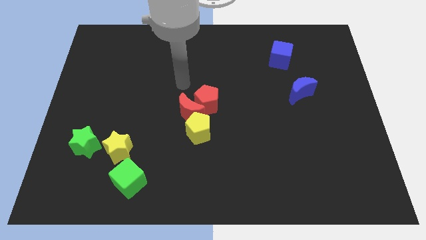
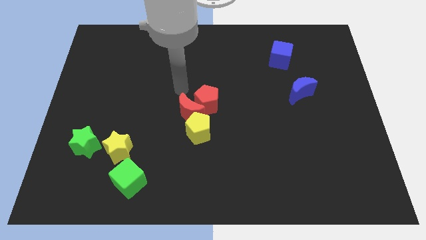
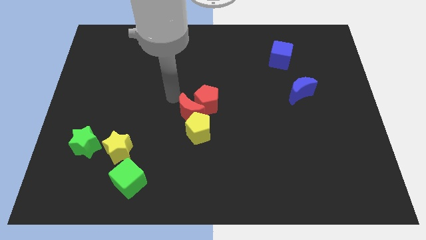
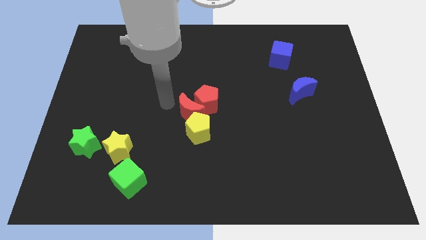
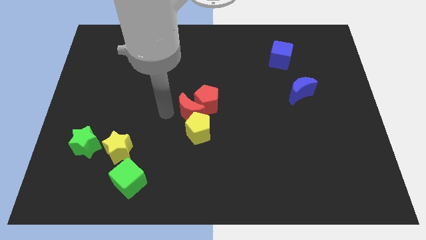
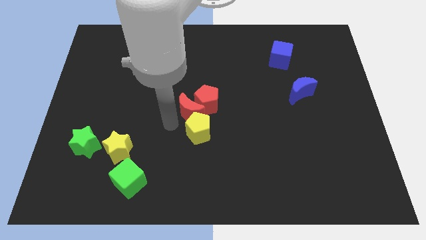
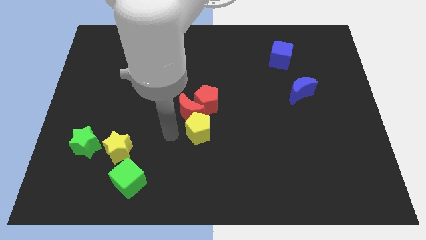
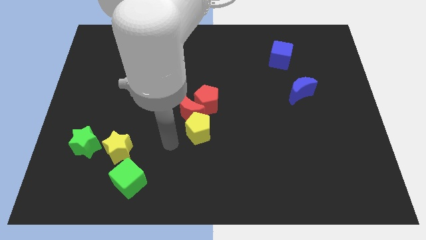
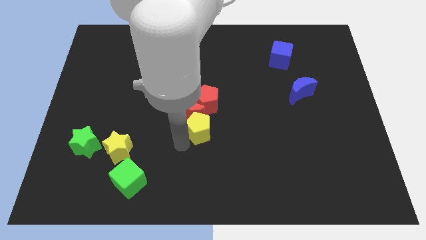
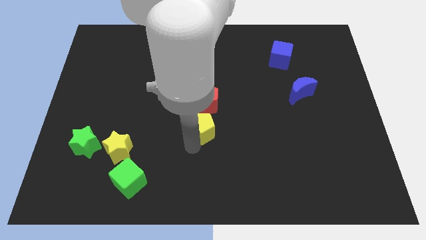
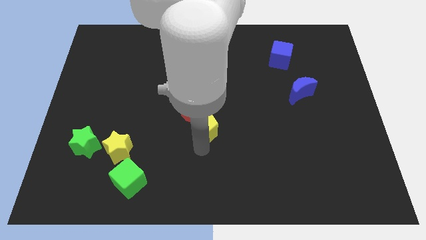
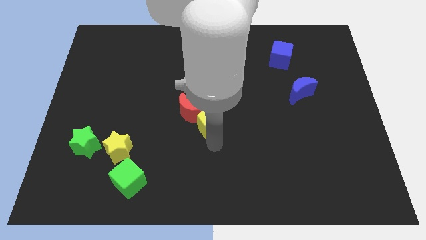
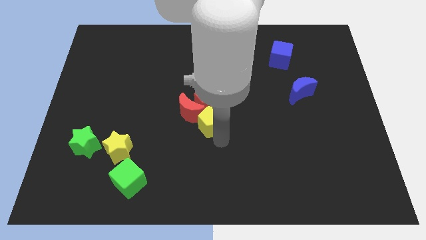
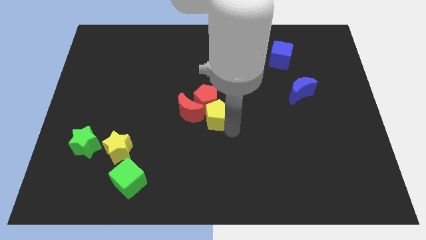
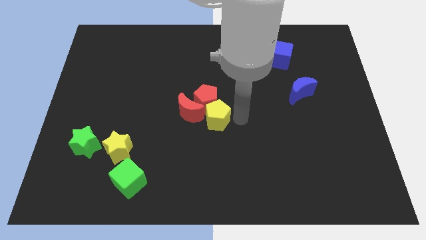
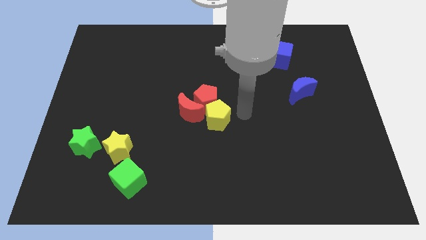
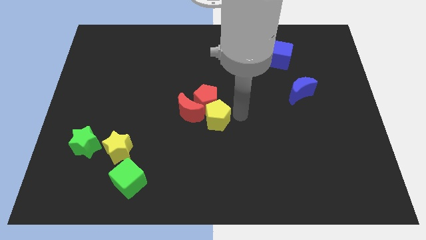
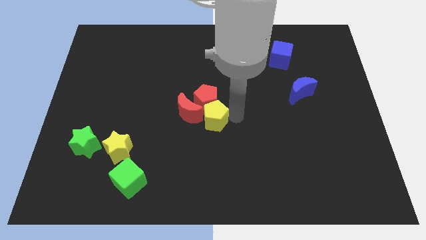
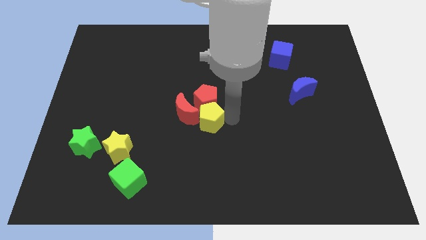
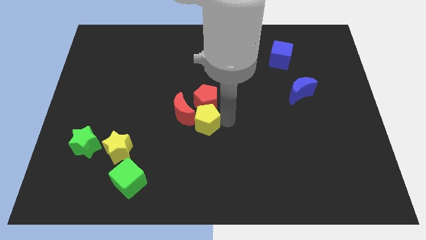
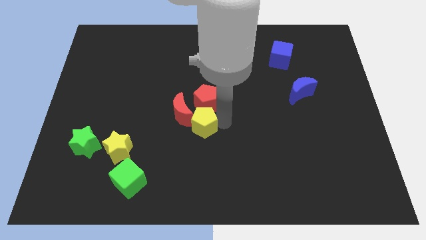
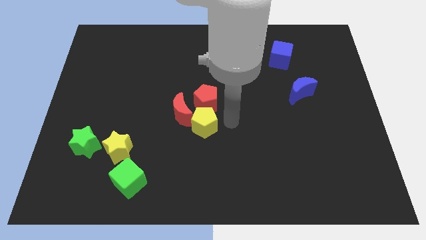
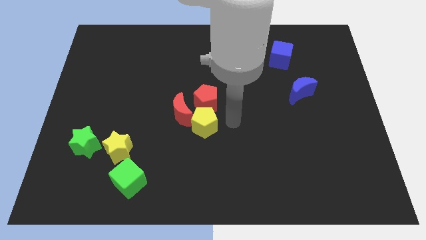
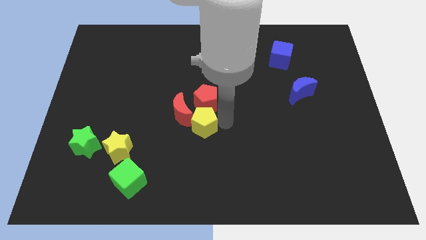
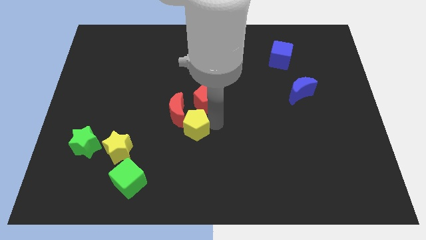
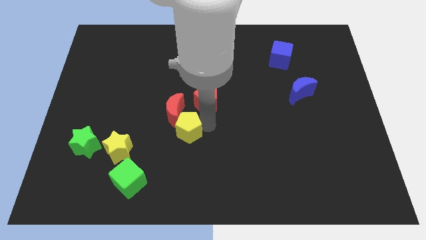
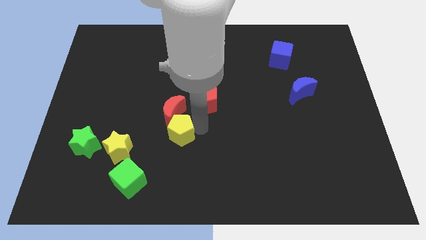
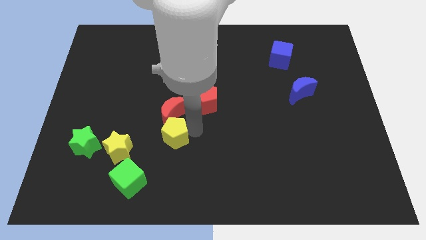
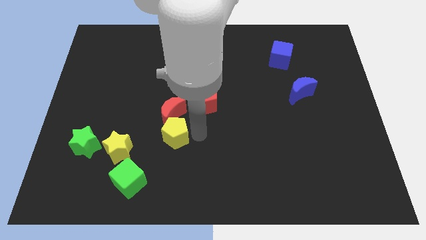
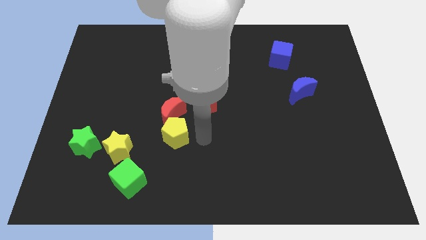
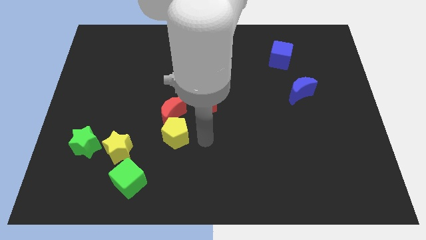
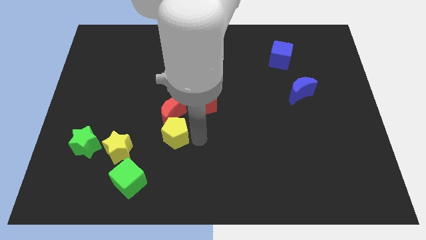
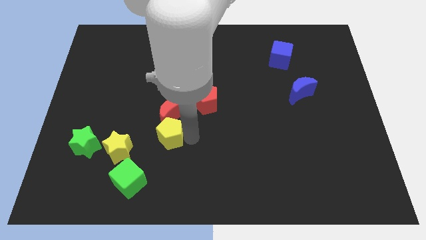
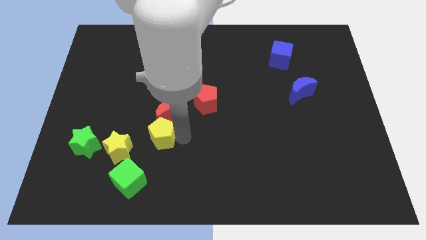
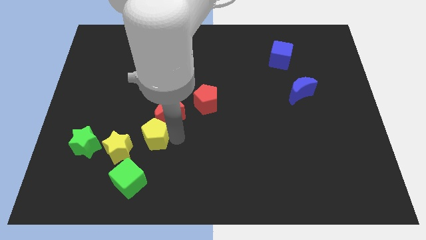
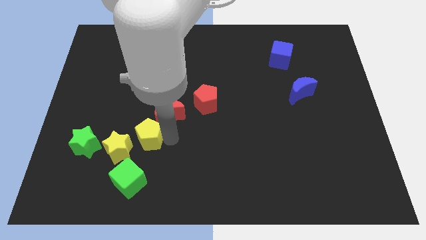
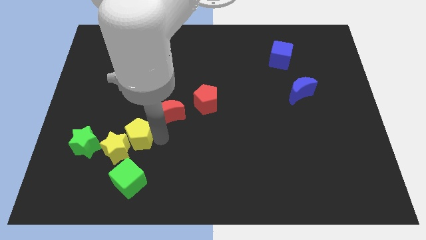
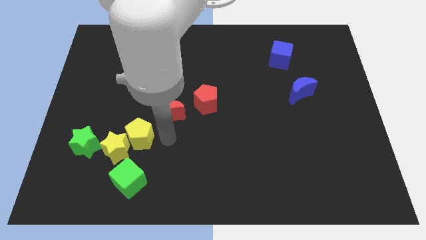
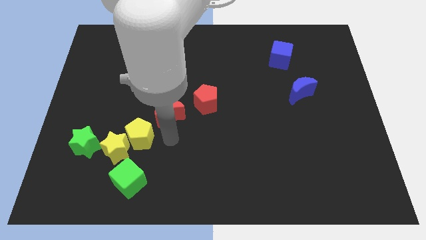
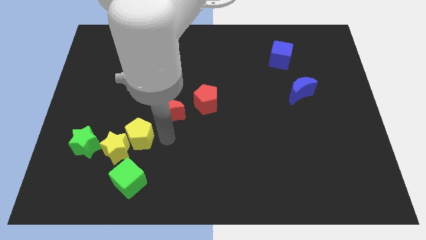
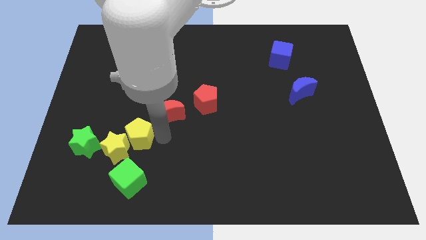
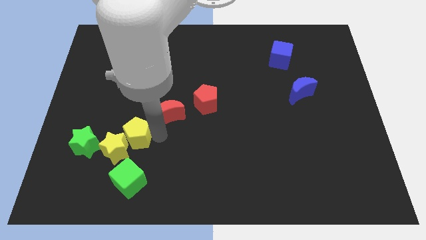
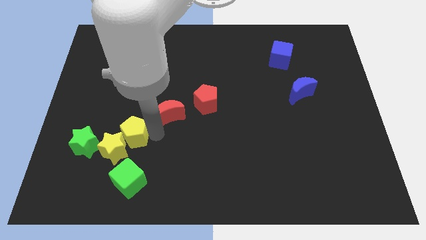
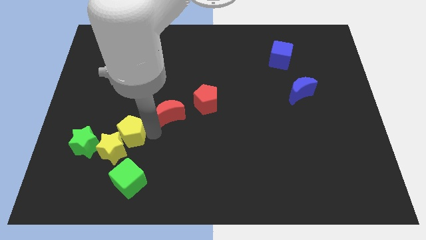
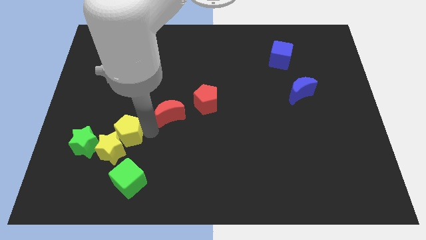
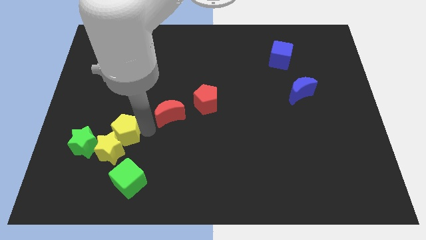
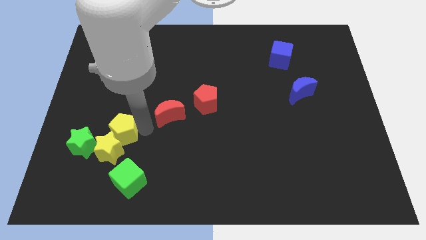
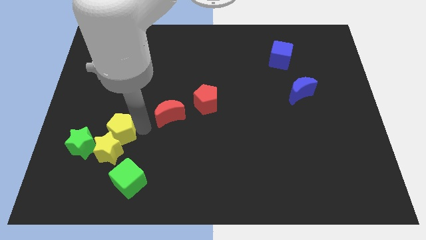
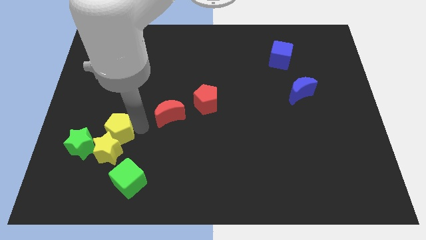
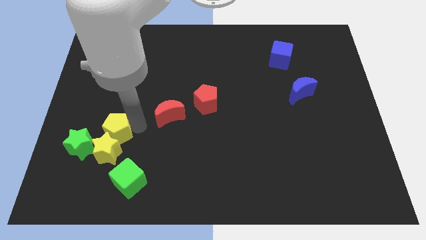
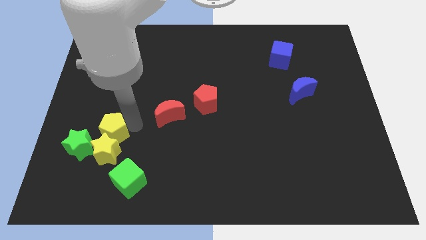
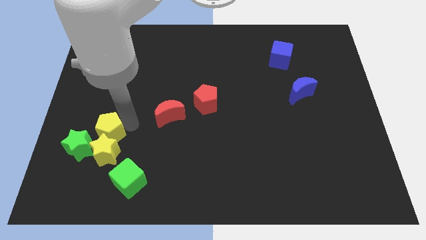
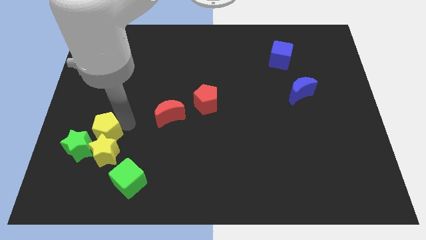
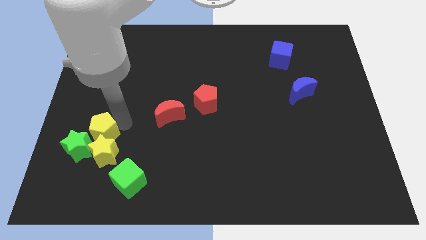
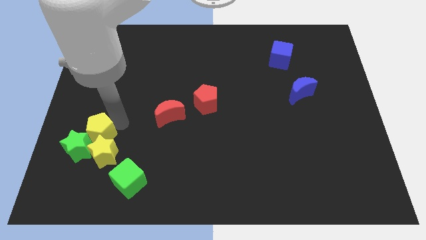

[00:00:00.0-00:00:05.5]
push the yellow pentagon towards the green star

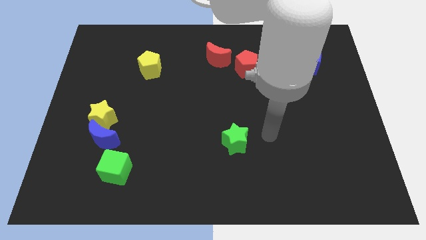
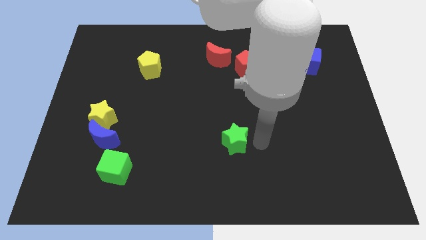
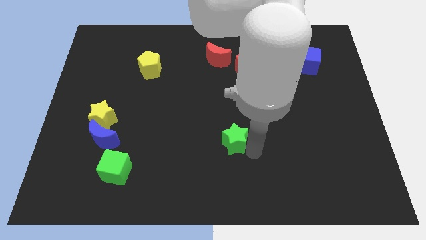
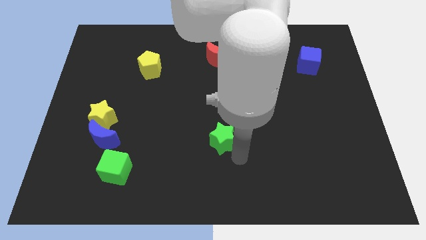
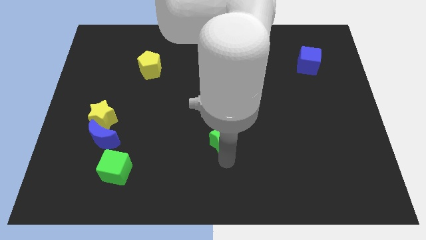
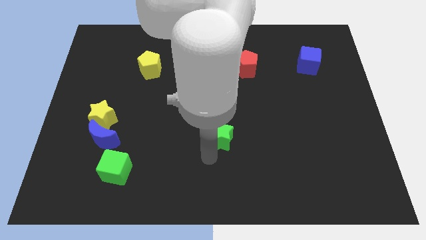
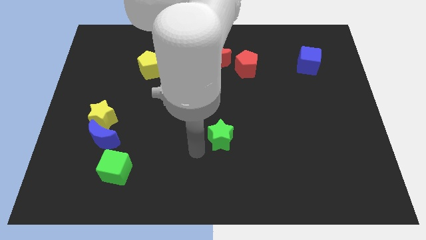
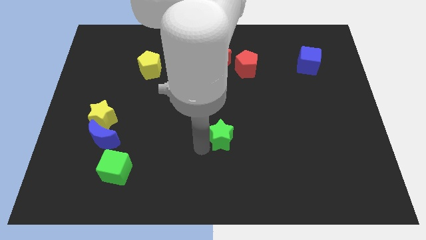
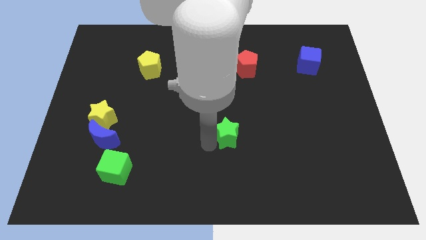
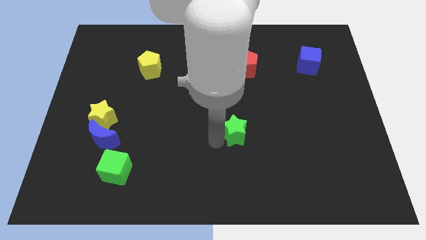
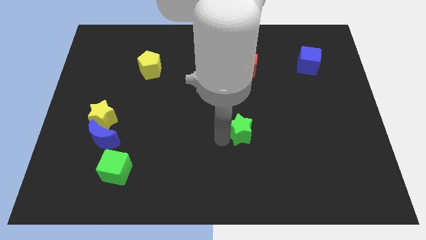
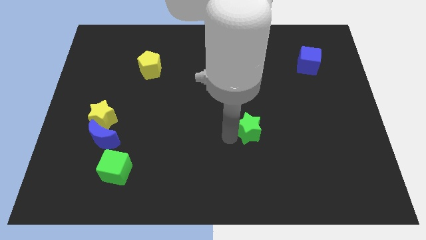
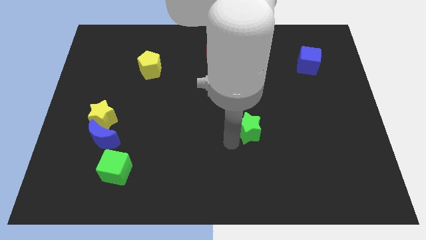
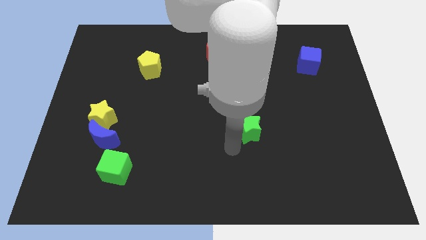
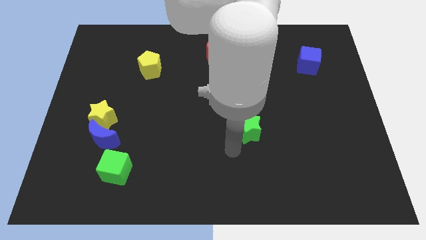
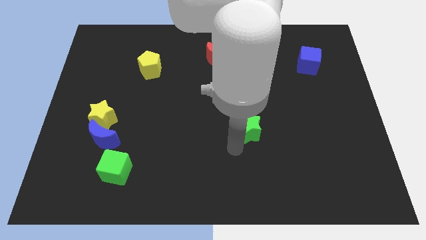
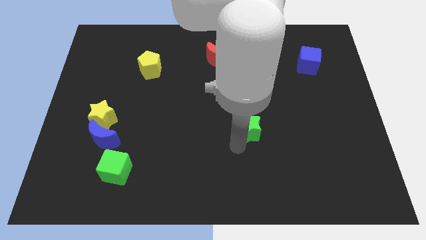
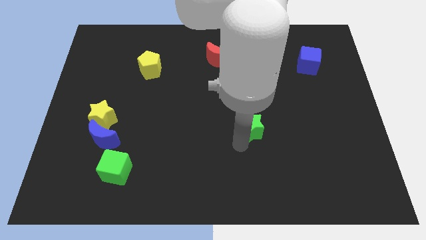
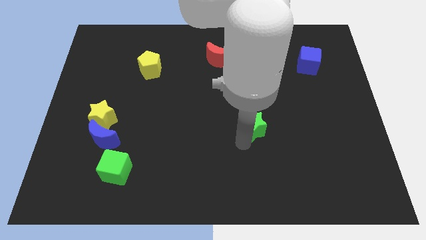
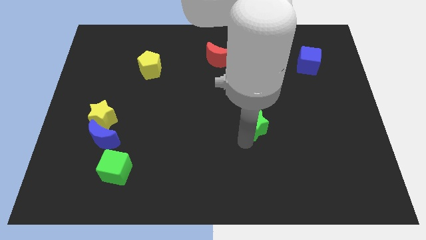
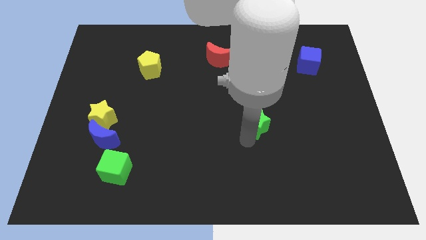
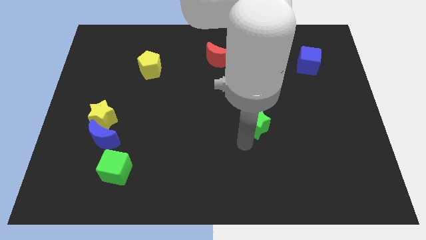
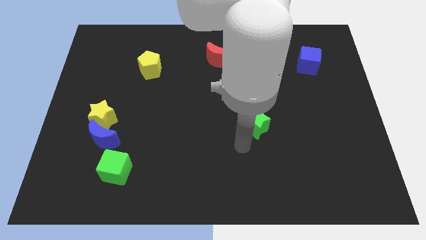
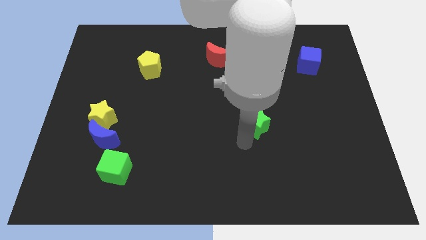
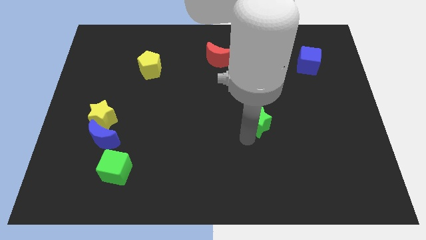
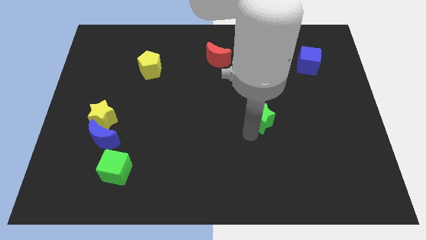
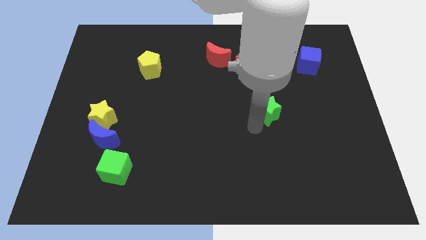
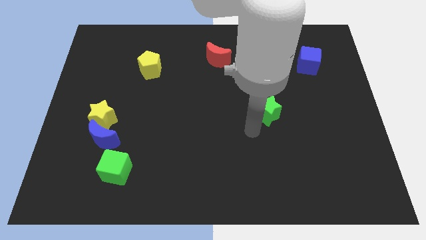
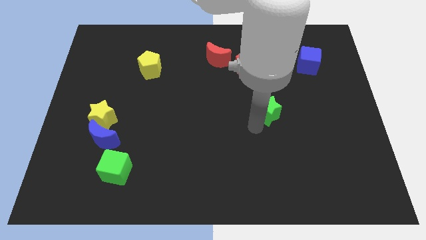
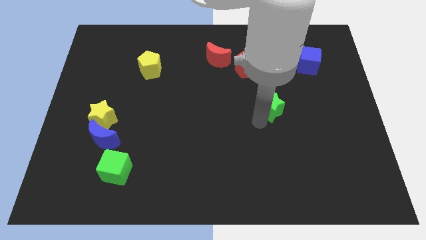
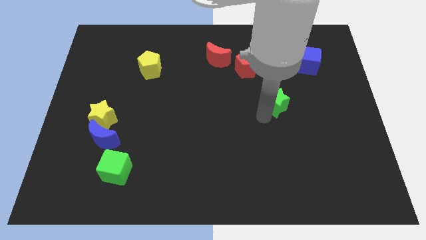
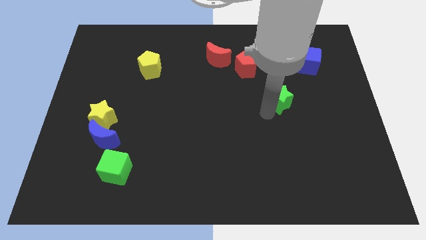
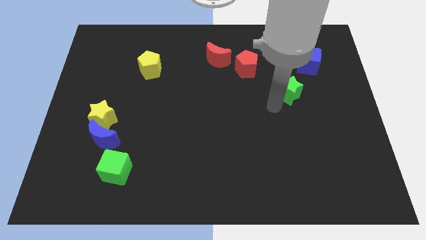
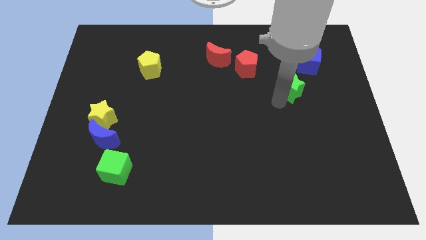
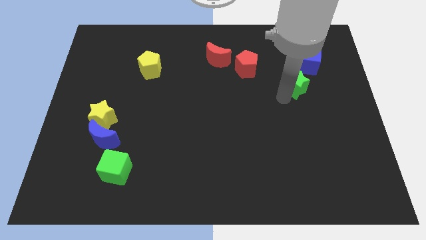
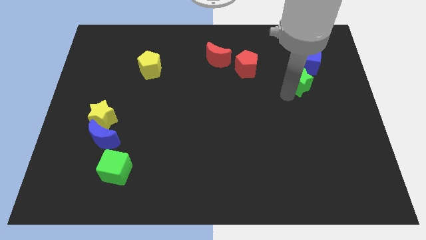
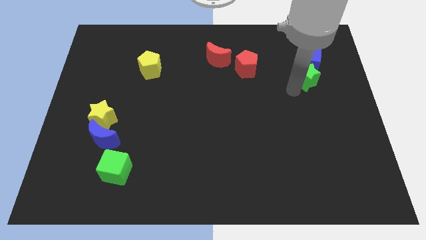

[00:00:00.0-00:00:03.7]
push the green star to the blue cube
